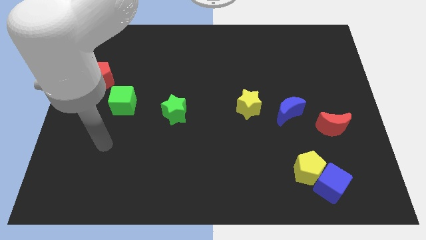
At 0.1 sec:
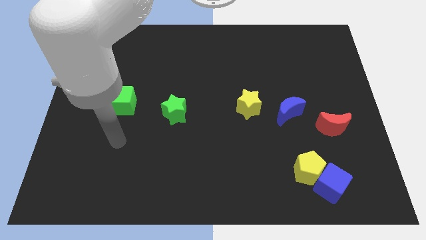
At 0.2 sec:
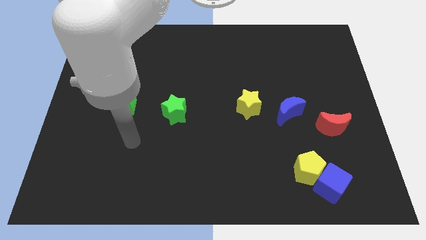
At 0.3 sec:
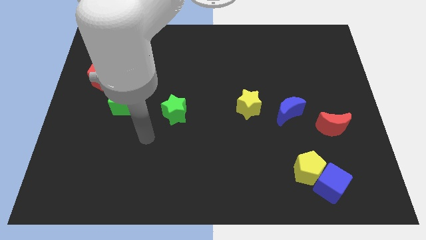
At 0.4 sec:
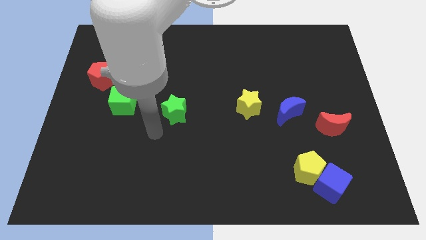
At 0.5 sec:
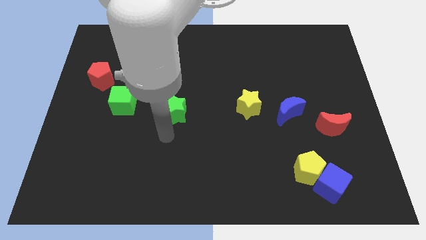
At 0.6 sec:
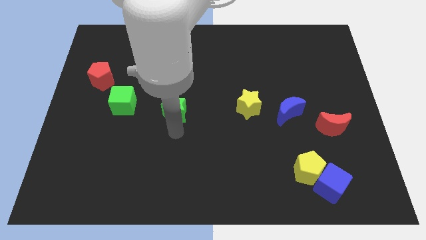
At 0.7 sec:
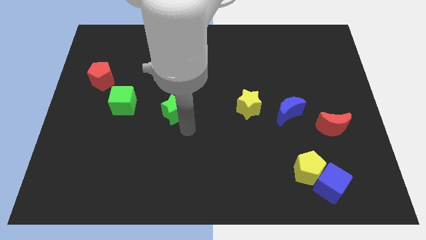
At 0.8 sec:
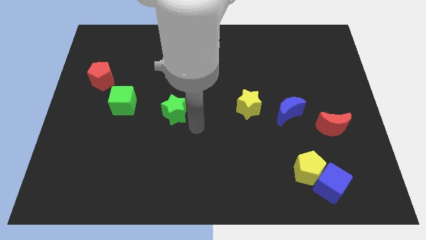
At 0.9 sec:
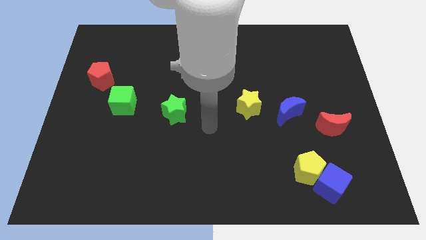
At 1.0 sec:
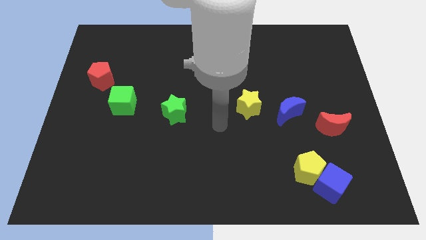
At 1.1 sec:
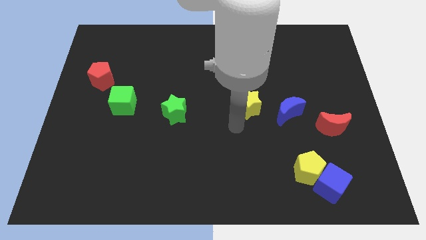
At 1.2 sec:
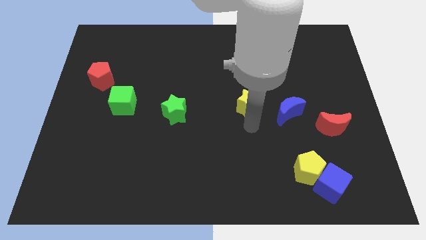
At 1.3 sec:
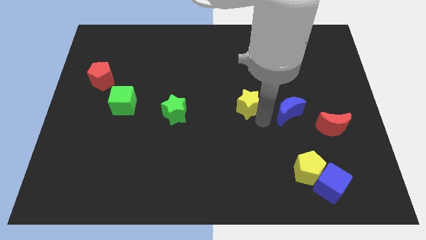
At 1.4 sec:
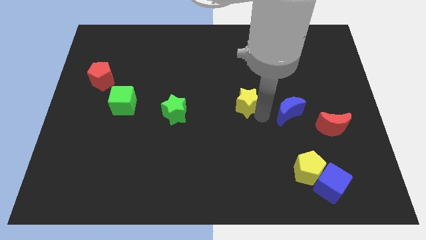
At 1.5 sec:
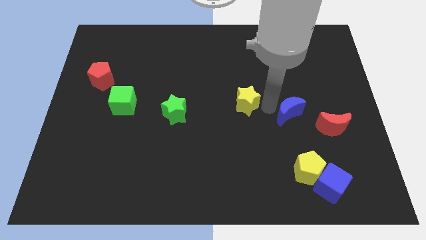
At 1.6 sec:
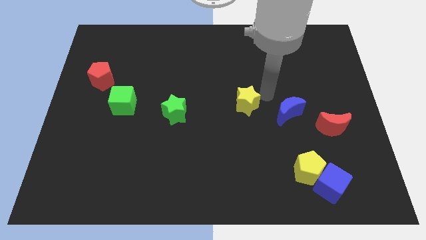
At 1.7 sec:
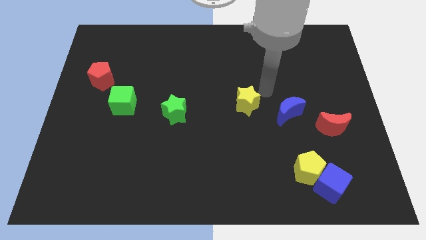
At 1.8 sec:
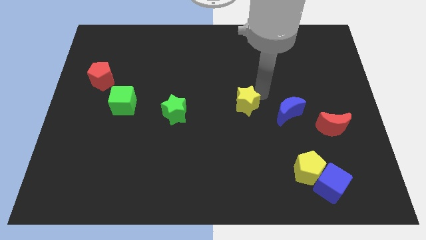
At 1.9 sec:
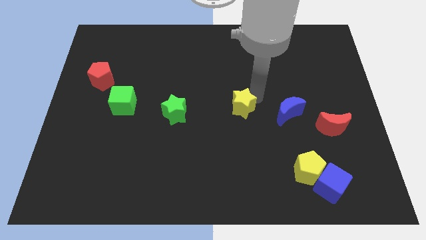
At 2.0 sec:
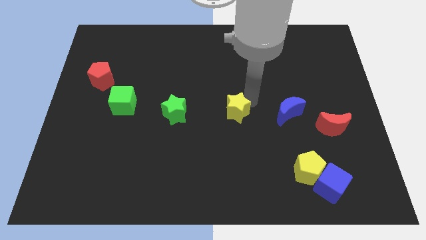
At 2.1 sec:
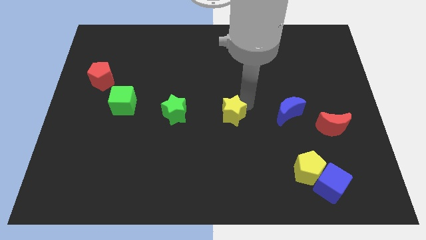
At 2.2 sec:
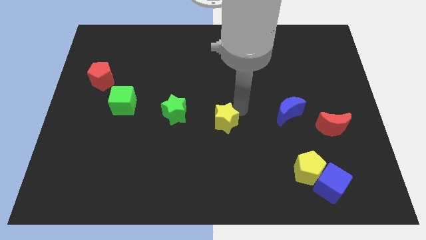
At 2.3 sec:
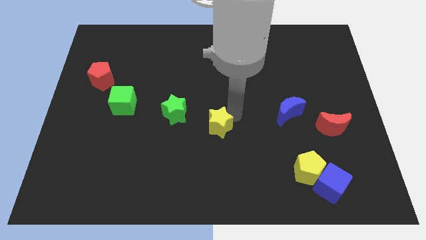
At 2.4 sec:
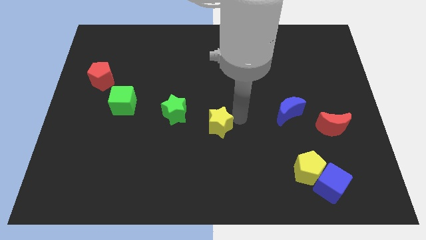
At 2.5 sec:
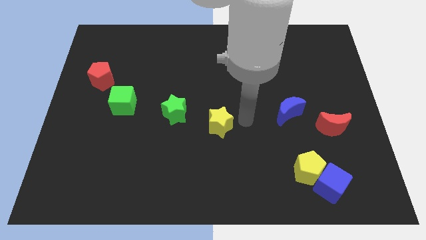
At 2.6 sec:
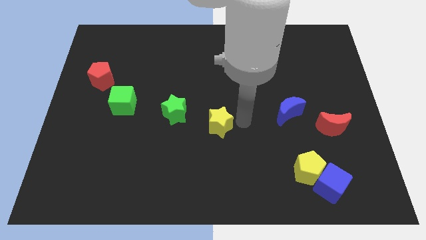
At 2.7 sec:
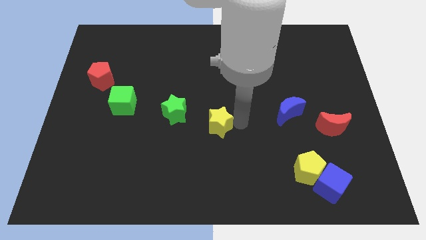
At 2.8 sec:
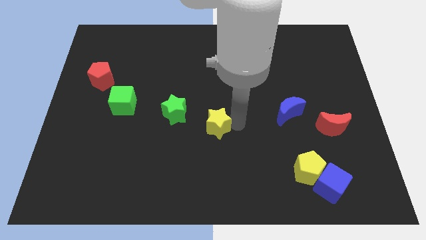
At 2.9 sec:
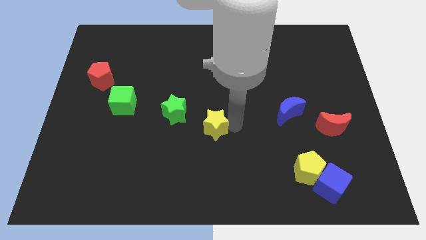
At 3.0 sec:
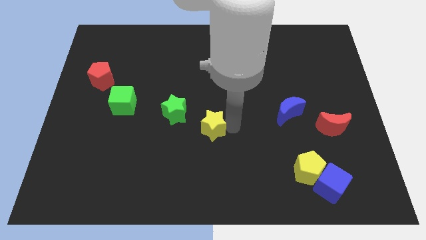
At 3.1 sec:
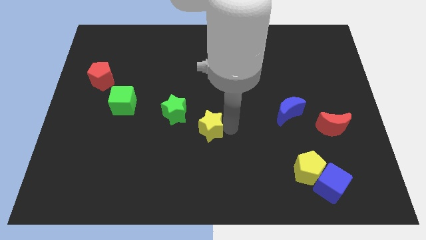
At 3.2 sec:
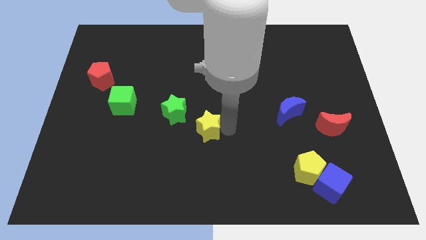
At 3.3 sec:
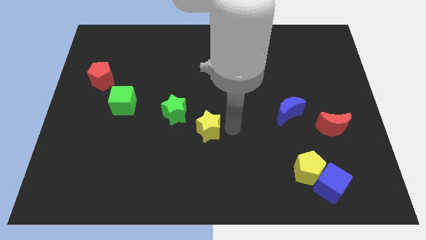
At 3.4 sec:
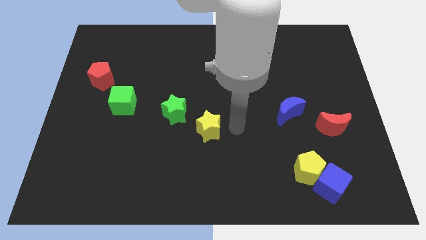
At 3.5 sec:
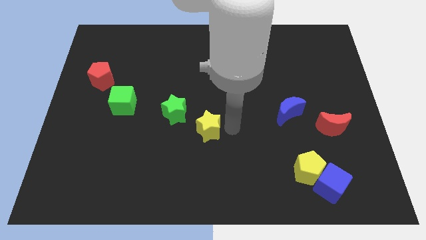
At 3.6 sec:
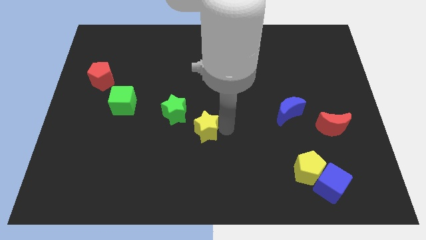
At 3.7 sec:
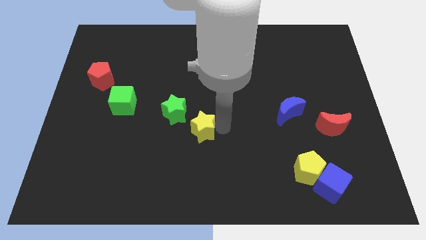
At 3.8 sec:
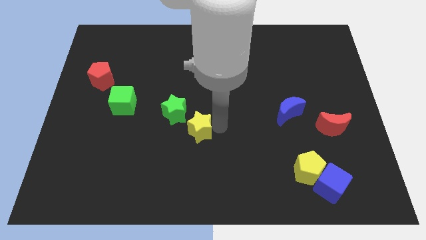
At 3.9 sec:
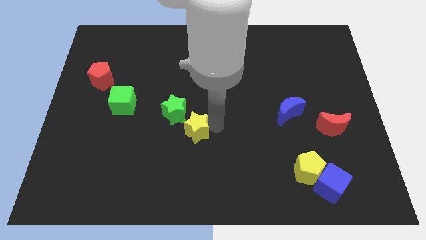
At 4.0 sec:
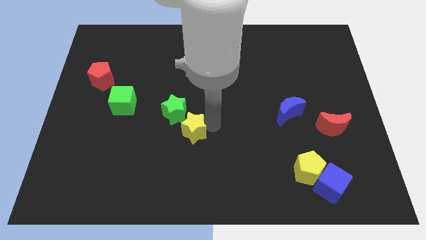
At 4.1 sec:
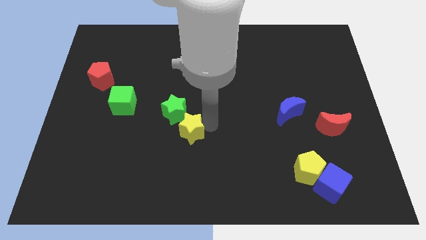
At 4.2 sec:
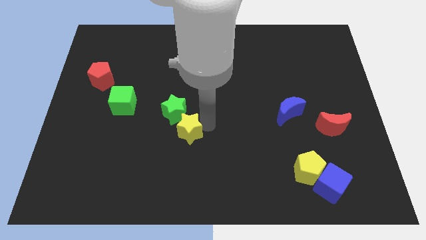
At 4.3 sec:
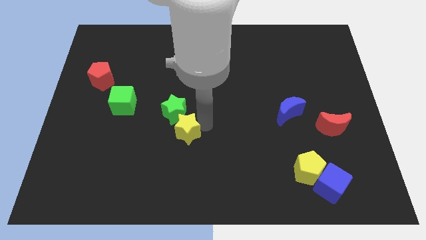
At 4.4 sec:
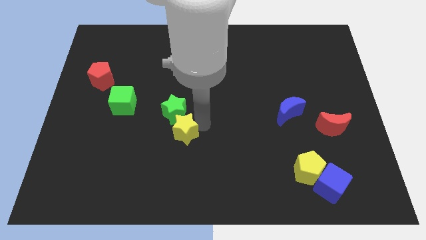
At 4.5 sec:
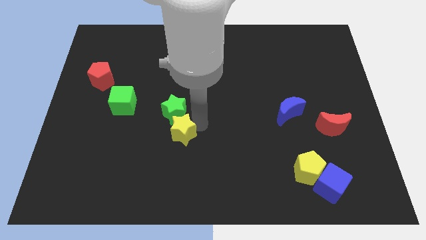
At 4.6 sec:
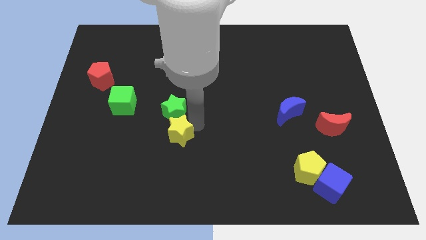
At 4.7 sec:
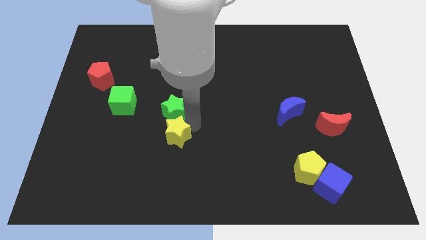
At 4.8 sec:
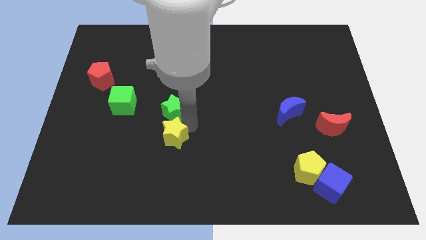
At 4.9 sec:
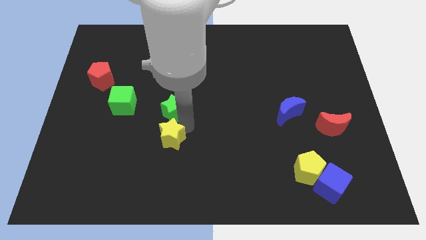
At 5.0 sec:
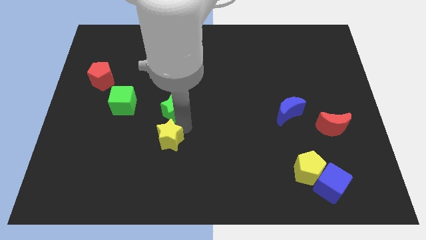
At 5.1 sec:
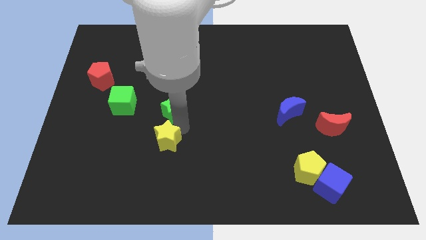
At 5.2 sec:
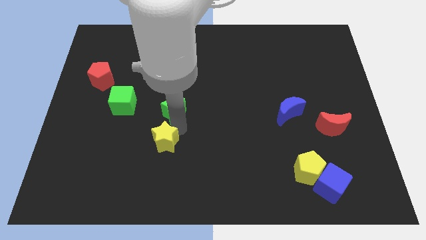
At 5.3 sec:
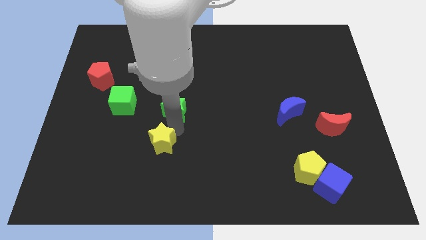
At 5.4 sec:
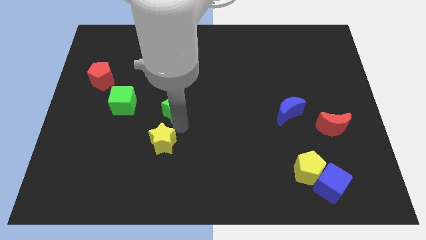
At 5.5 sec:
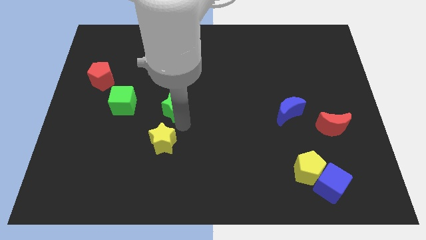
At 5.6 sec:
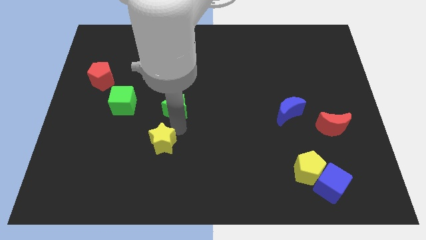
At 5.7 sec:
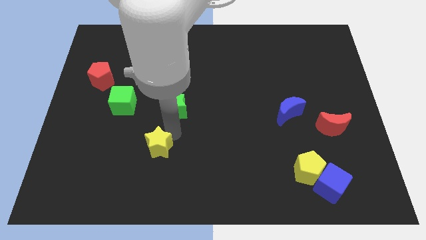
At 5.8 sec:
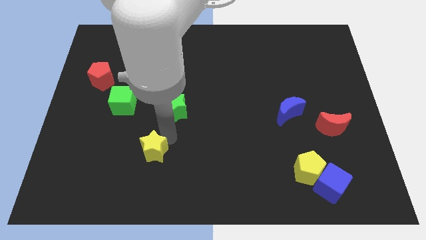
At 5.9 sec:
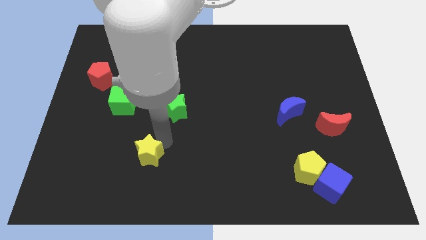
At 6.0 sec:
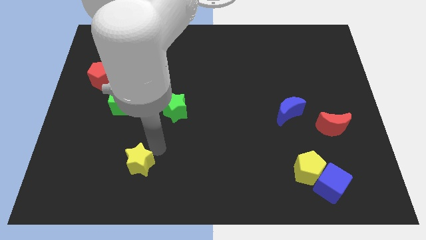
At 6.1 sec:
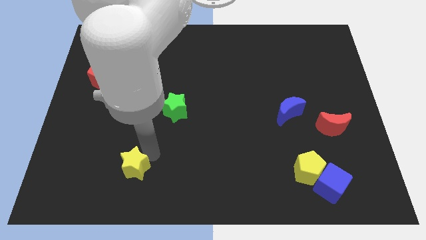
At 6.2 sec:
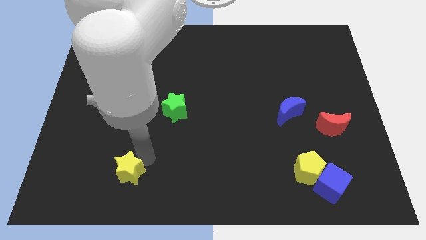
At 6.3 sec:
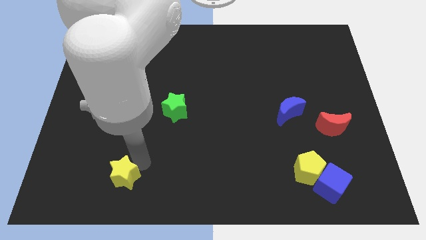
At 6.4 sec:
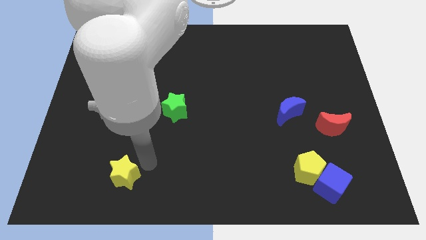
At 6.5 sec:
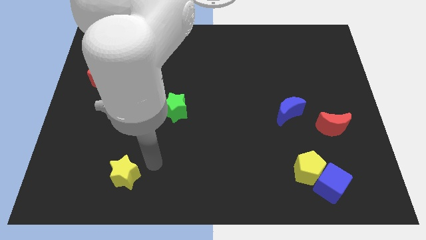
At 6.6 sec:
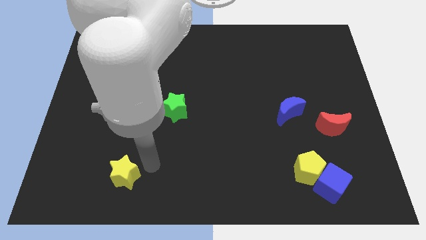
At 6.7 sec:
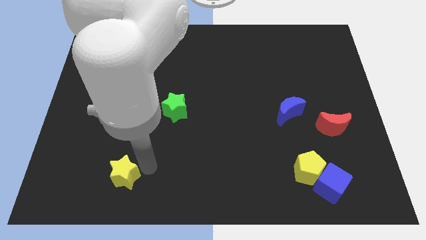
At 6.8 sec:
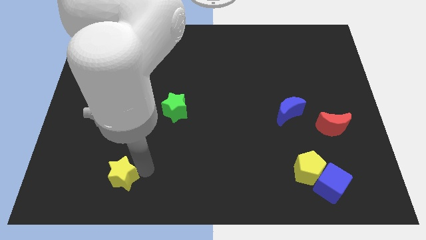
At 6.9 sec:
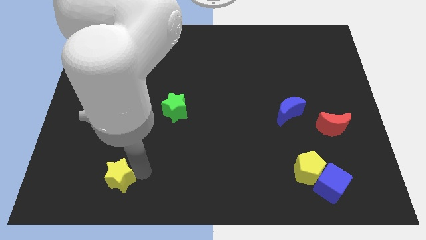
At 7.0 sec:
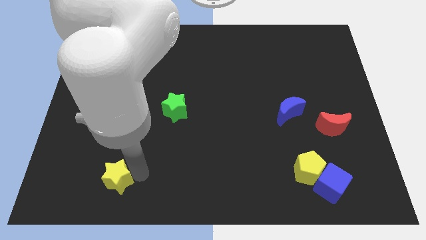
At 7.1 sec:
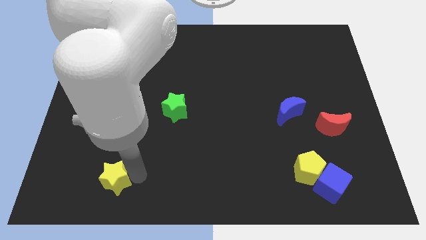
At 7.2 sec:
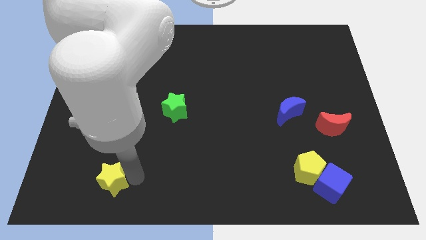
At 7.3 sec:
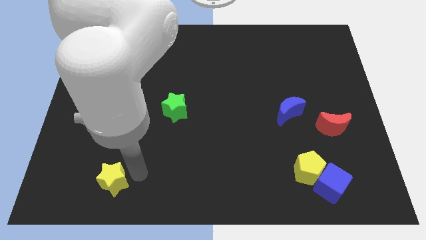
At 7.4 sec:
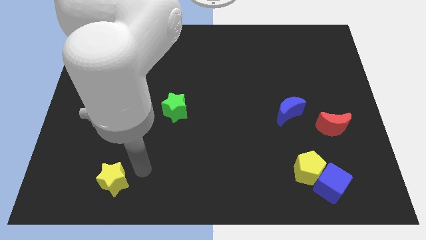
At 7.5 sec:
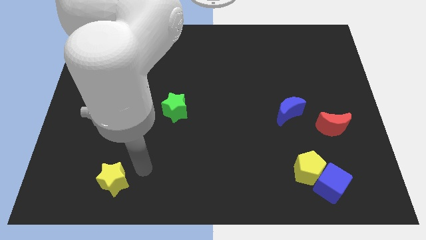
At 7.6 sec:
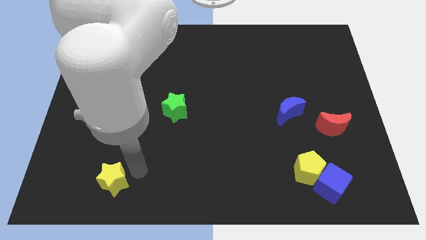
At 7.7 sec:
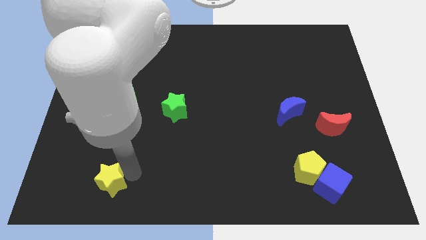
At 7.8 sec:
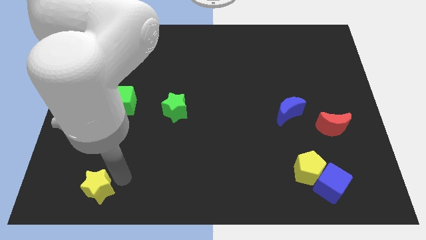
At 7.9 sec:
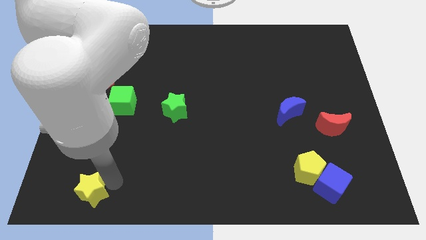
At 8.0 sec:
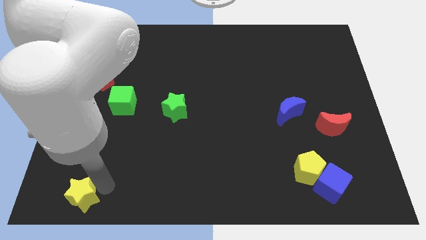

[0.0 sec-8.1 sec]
put the yellow star to the bottom left corner
